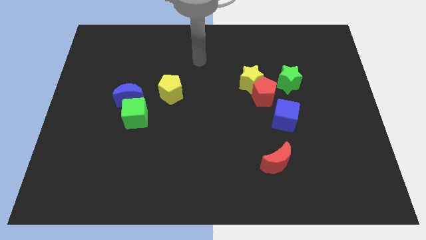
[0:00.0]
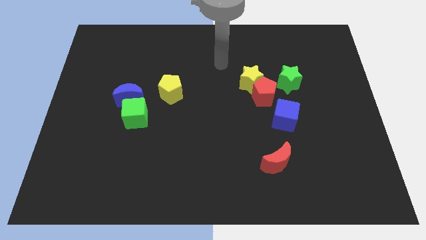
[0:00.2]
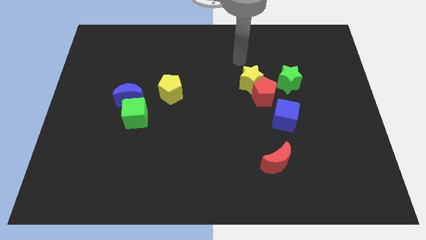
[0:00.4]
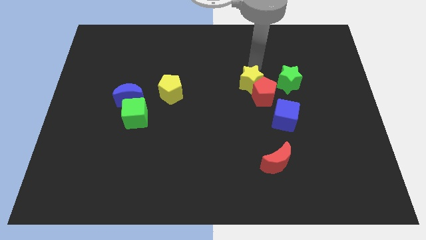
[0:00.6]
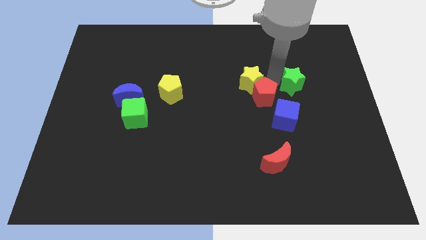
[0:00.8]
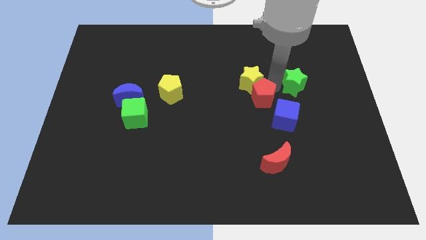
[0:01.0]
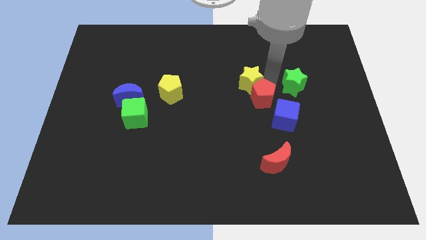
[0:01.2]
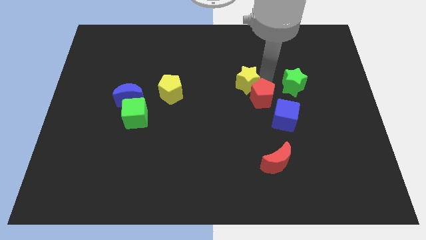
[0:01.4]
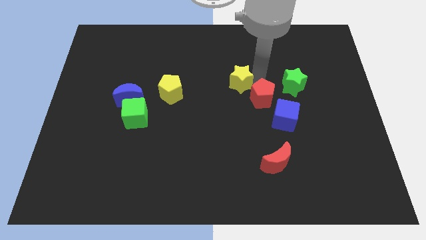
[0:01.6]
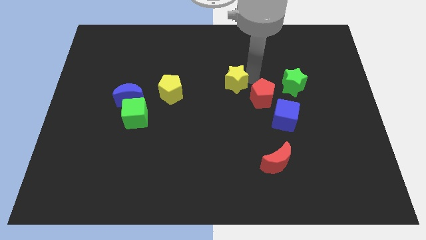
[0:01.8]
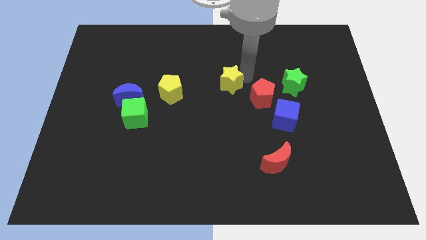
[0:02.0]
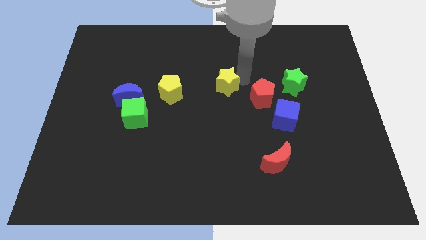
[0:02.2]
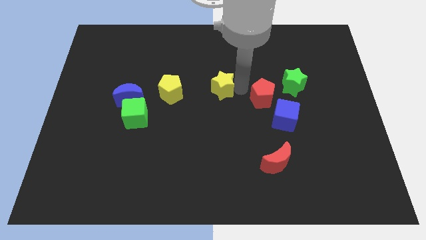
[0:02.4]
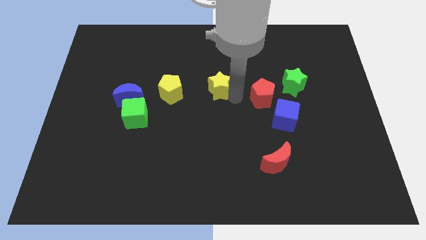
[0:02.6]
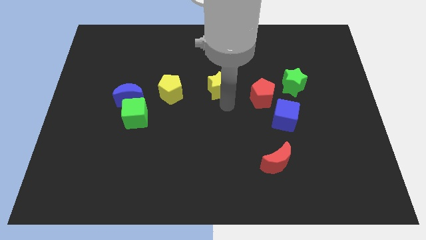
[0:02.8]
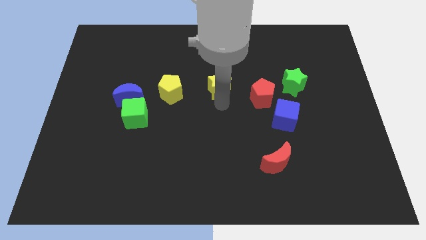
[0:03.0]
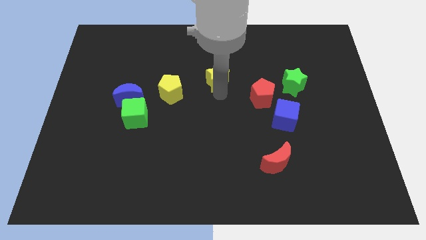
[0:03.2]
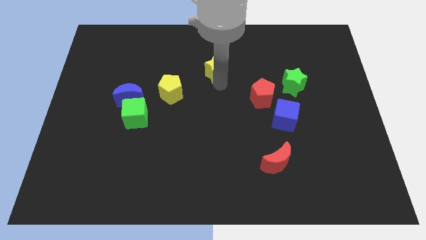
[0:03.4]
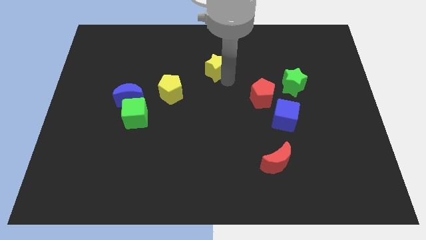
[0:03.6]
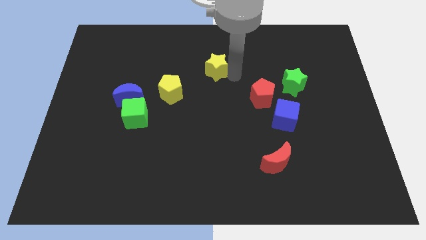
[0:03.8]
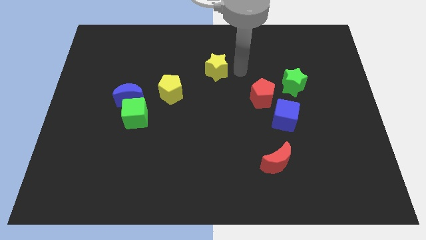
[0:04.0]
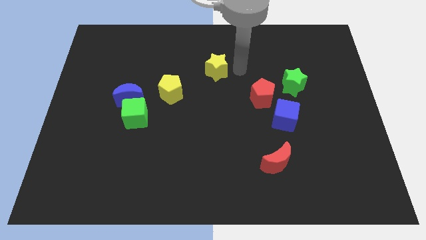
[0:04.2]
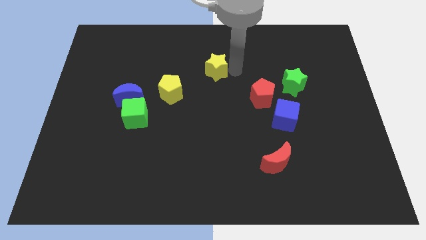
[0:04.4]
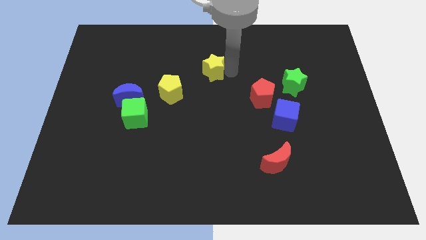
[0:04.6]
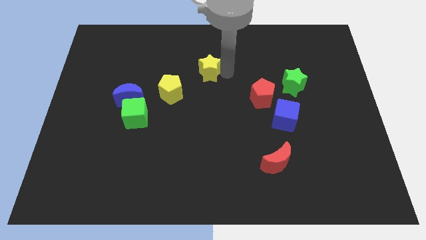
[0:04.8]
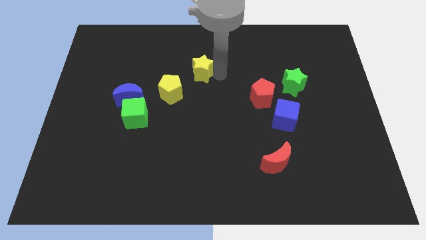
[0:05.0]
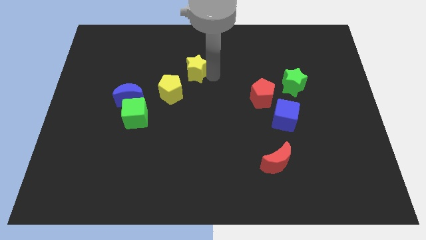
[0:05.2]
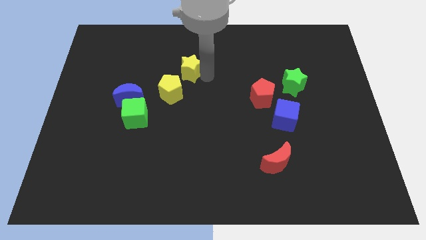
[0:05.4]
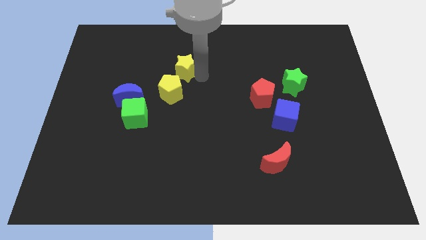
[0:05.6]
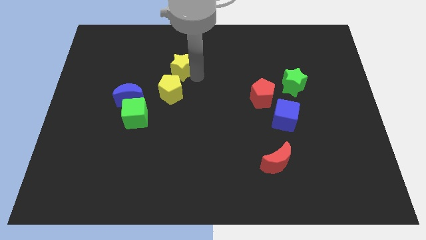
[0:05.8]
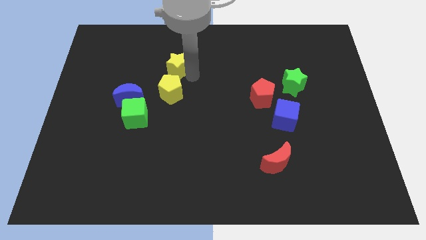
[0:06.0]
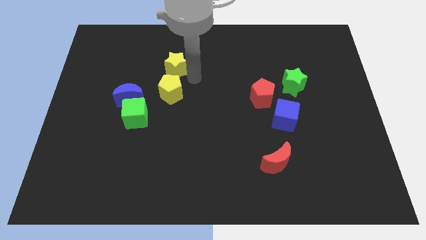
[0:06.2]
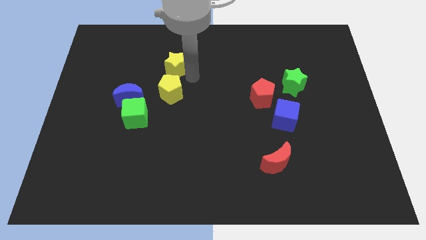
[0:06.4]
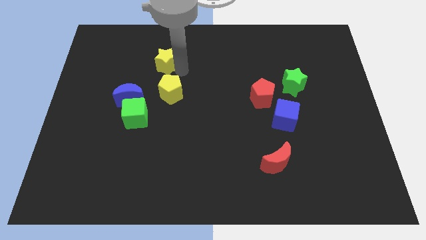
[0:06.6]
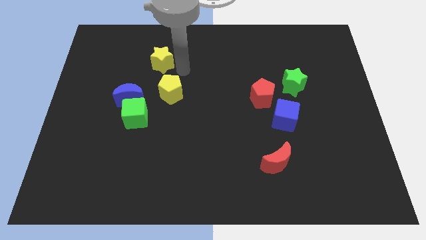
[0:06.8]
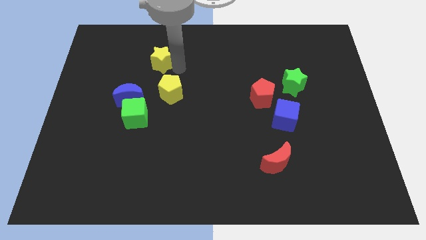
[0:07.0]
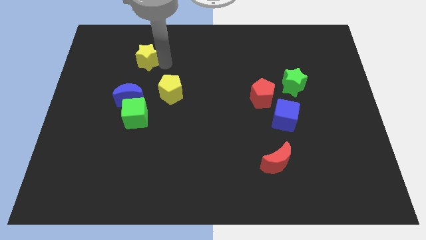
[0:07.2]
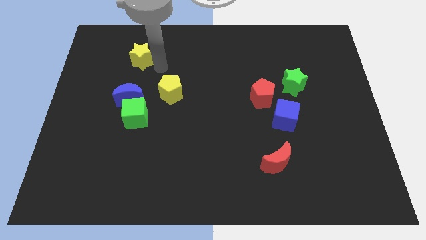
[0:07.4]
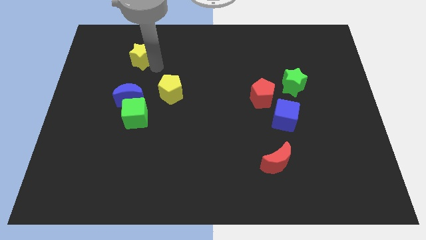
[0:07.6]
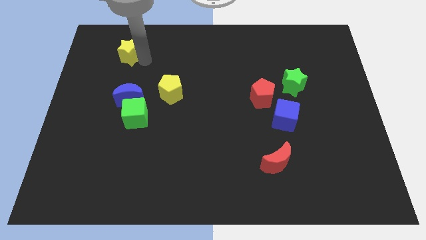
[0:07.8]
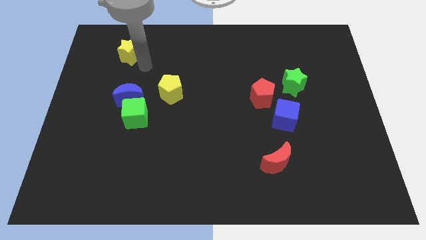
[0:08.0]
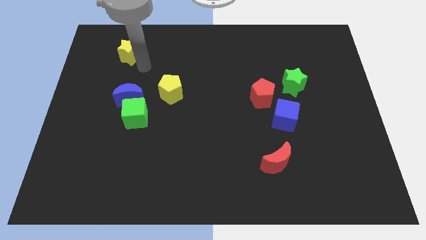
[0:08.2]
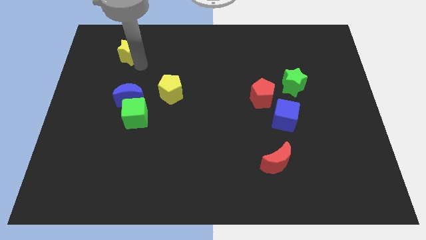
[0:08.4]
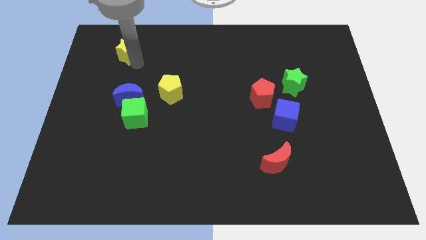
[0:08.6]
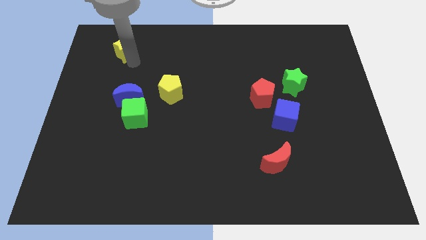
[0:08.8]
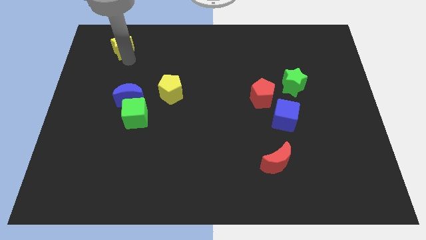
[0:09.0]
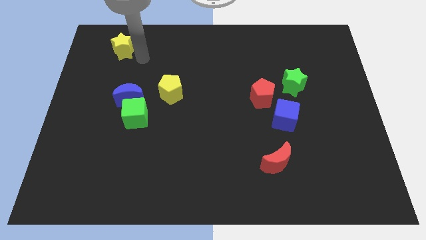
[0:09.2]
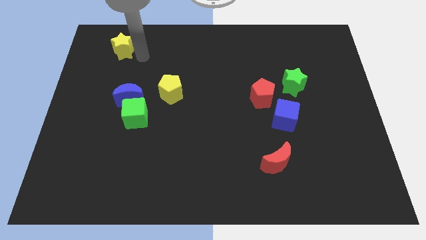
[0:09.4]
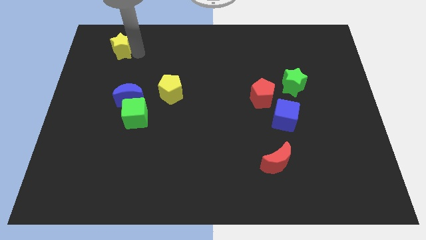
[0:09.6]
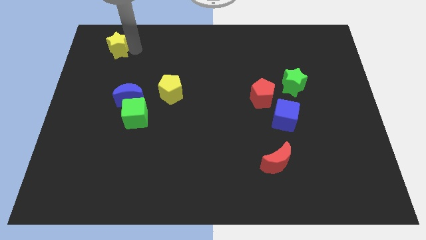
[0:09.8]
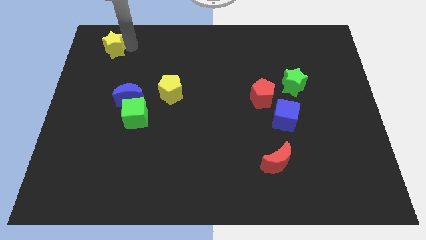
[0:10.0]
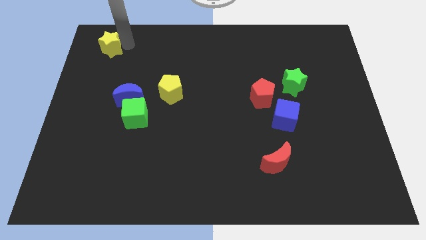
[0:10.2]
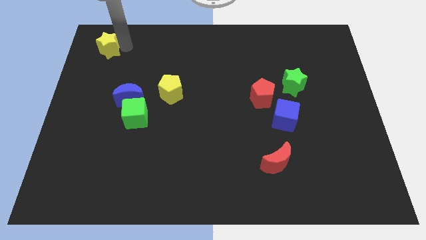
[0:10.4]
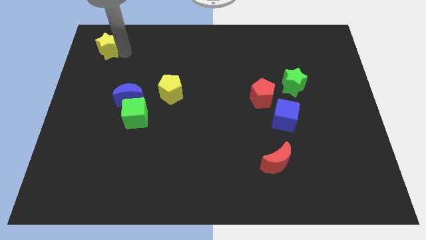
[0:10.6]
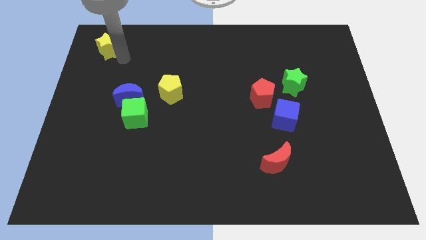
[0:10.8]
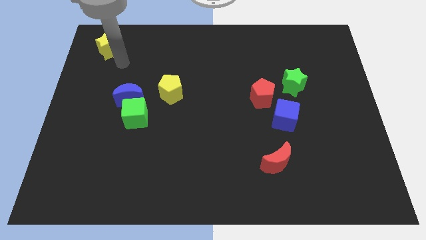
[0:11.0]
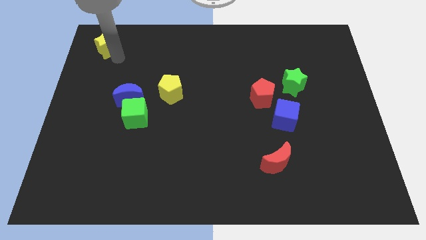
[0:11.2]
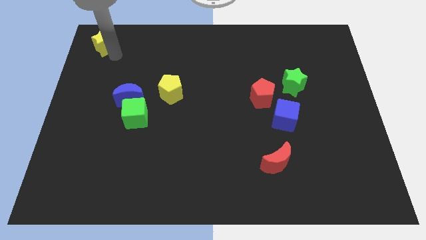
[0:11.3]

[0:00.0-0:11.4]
put the yellow star to the upper left corner

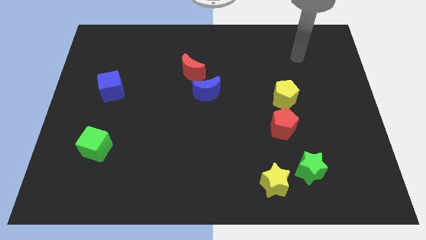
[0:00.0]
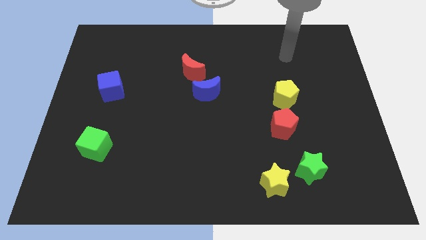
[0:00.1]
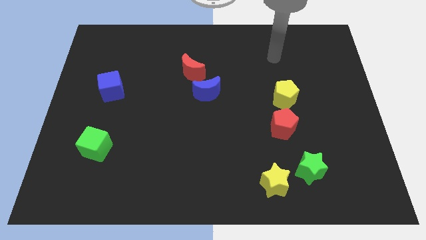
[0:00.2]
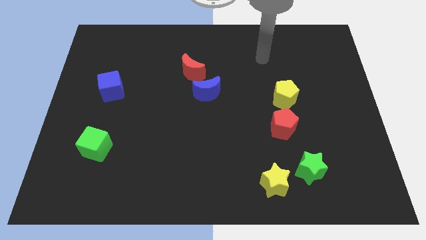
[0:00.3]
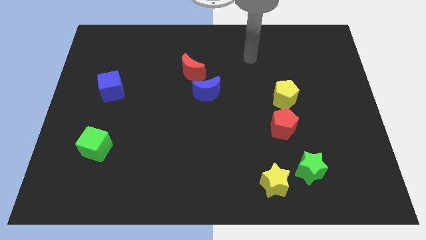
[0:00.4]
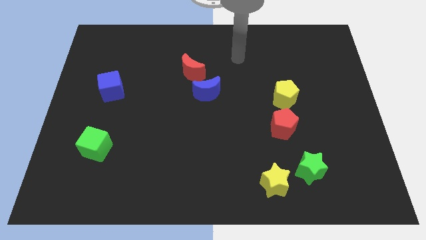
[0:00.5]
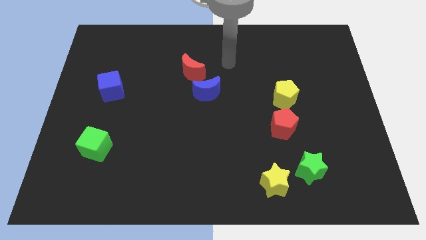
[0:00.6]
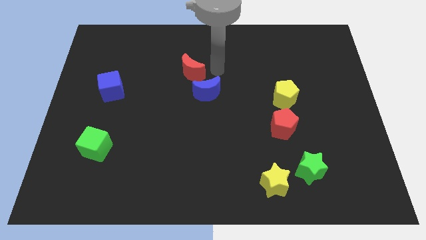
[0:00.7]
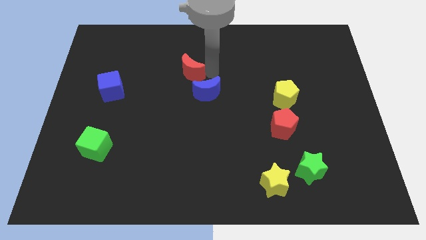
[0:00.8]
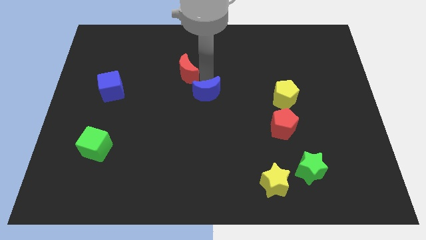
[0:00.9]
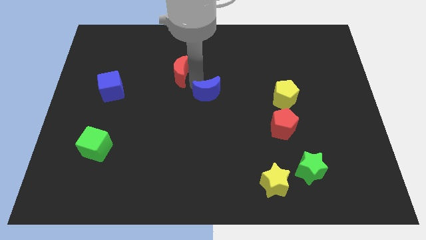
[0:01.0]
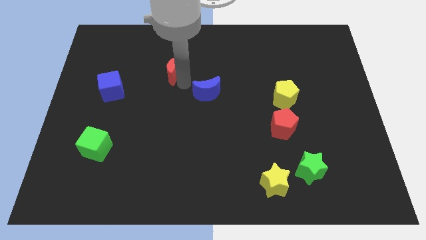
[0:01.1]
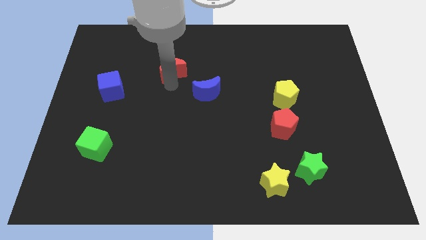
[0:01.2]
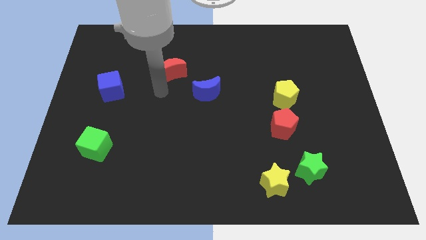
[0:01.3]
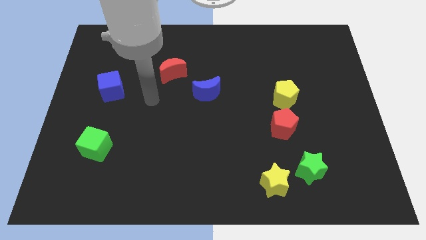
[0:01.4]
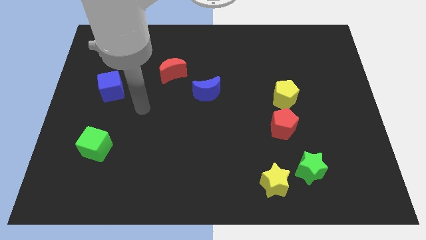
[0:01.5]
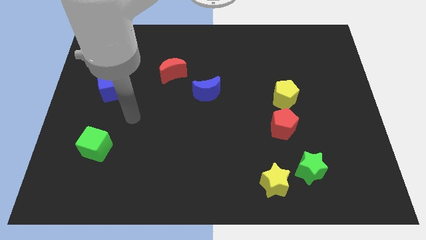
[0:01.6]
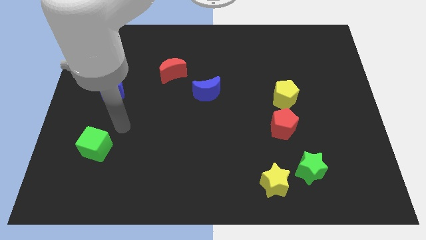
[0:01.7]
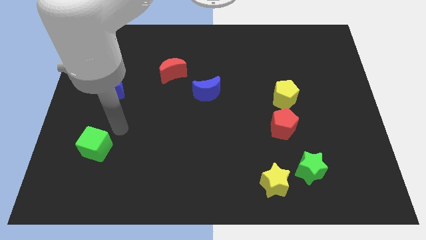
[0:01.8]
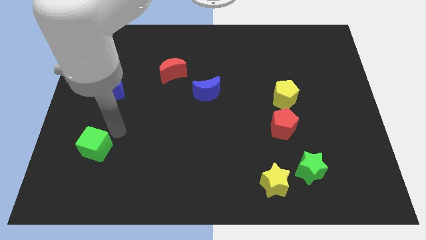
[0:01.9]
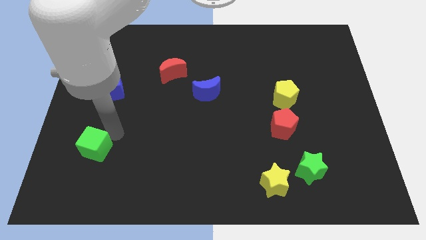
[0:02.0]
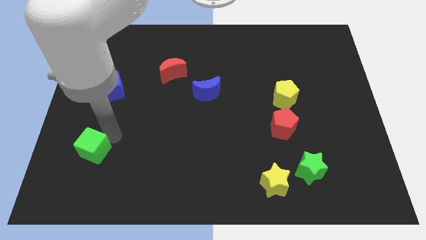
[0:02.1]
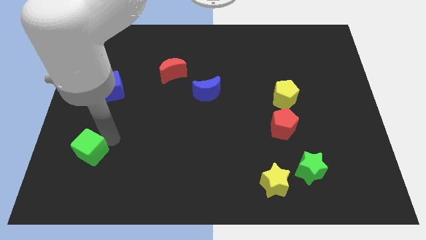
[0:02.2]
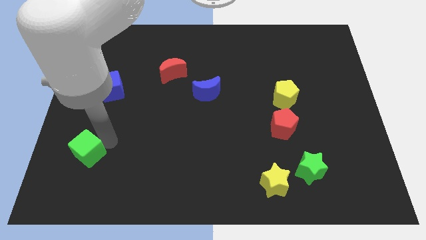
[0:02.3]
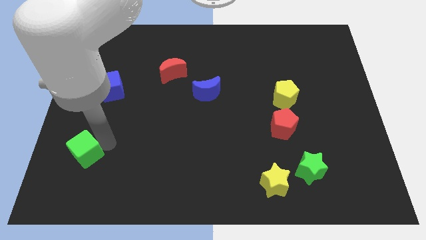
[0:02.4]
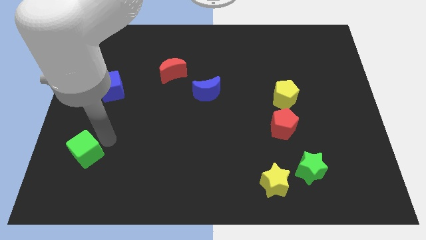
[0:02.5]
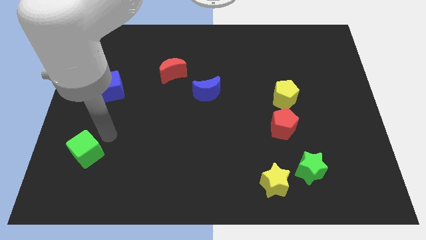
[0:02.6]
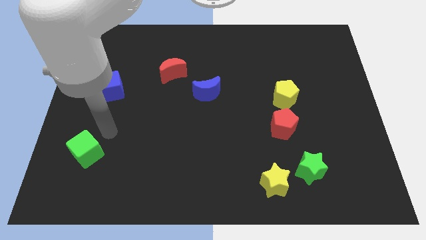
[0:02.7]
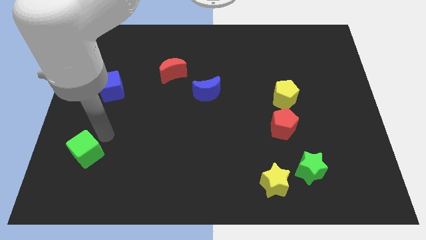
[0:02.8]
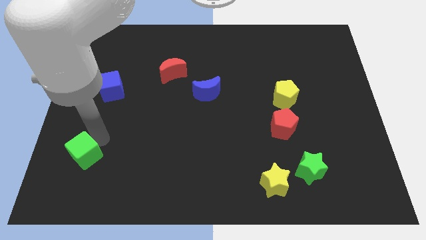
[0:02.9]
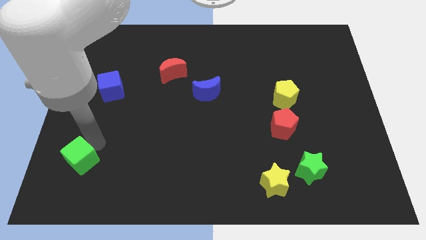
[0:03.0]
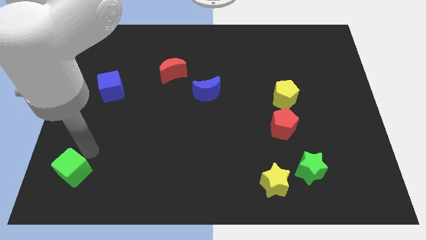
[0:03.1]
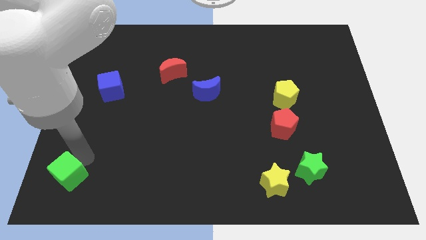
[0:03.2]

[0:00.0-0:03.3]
push the green cube to the bottom left of the board
